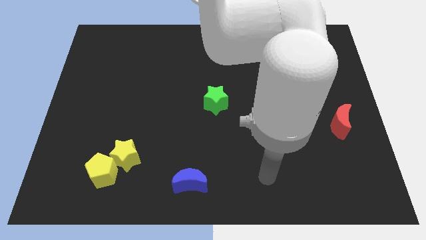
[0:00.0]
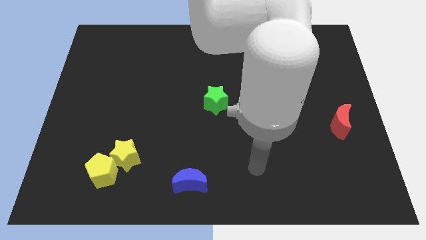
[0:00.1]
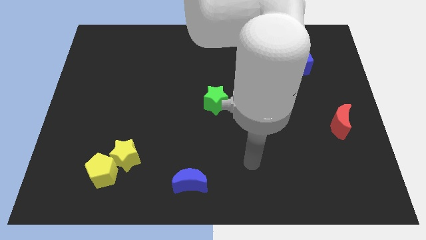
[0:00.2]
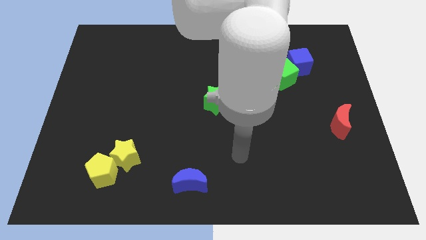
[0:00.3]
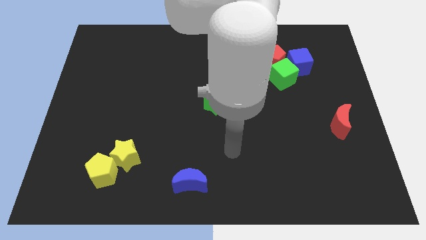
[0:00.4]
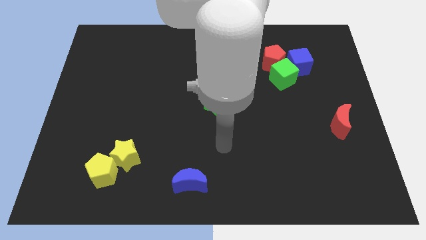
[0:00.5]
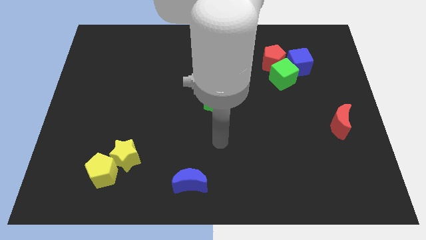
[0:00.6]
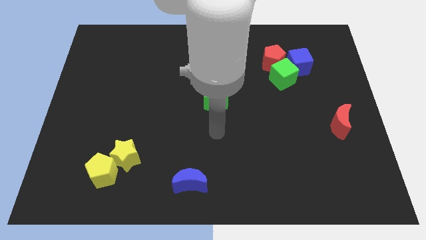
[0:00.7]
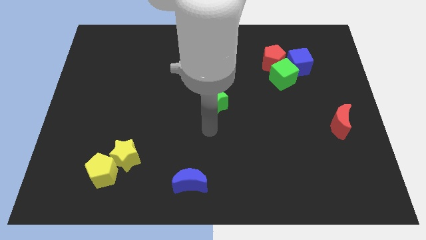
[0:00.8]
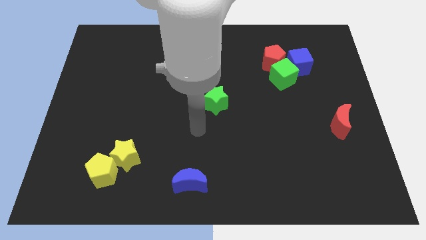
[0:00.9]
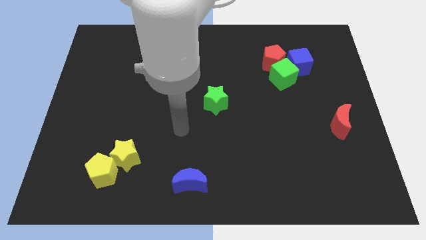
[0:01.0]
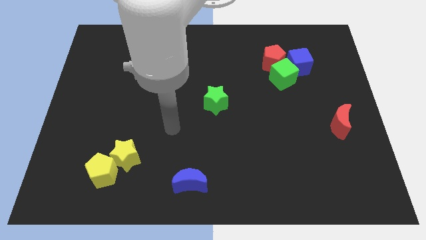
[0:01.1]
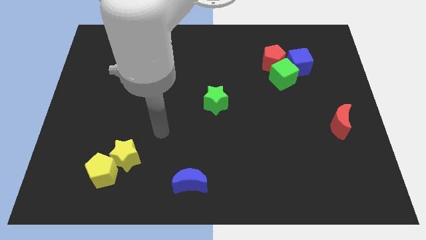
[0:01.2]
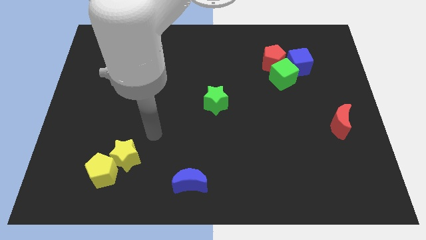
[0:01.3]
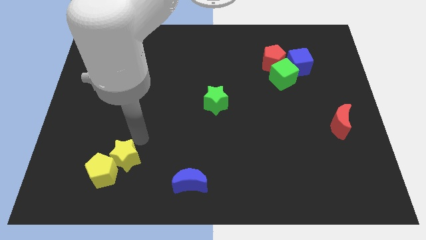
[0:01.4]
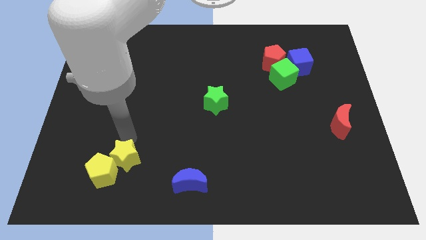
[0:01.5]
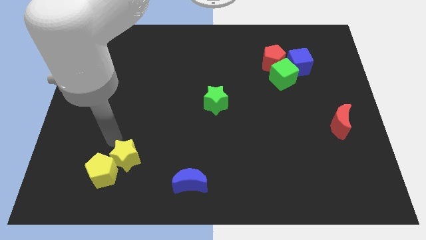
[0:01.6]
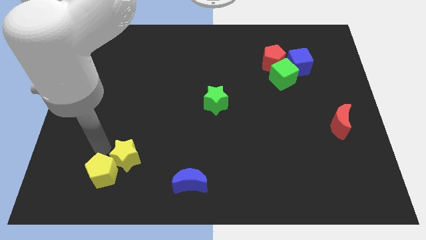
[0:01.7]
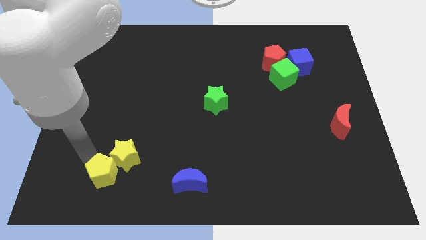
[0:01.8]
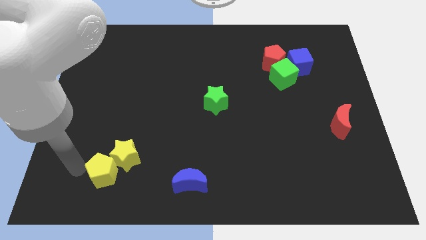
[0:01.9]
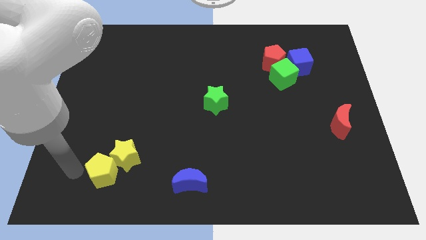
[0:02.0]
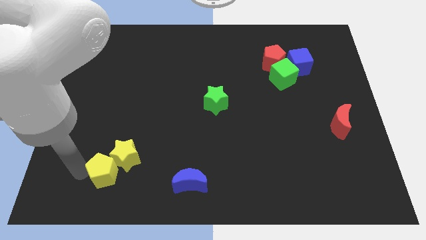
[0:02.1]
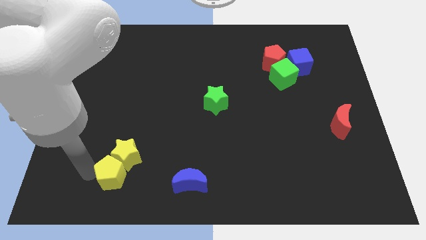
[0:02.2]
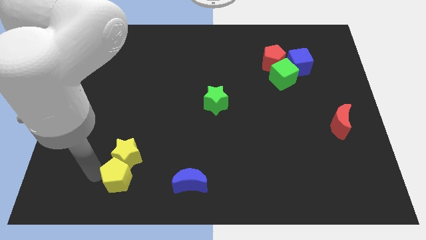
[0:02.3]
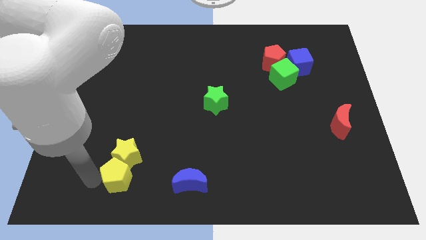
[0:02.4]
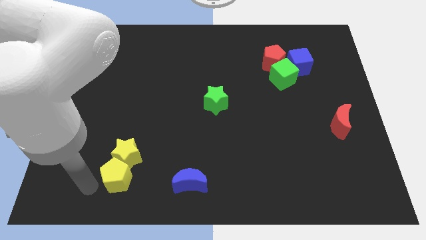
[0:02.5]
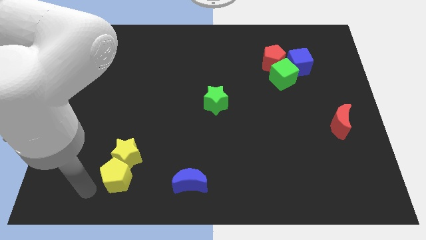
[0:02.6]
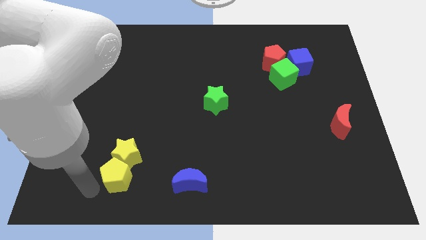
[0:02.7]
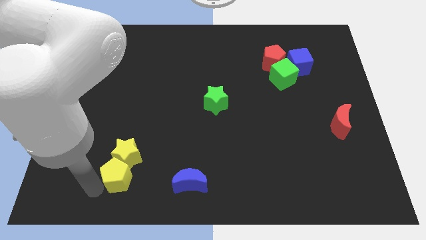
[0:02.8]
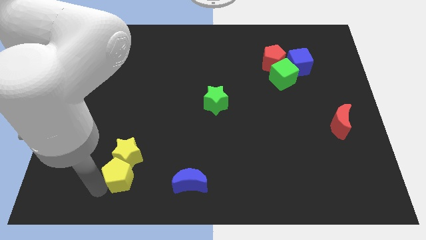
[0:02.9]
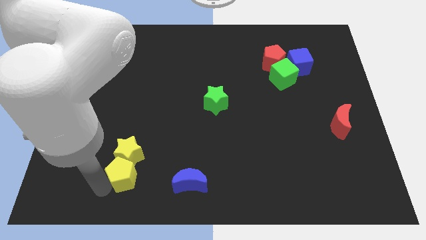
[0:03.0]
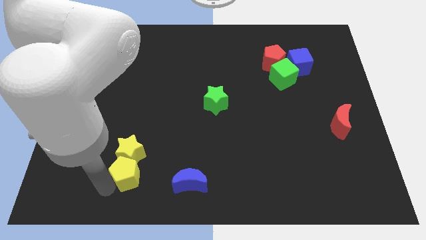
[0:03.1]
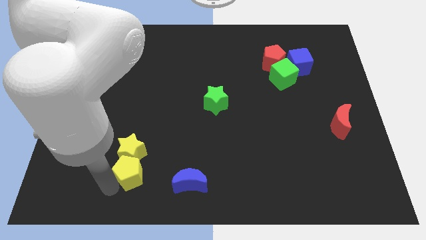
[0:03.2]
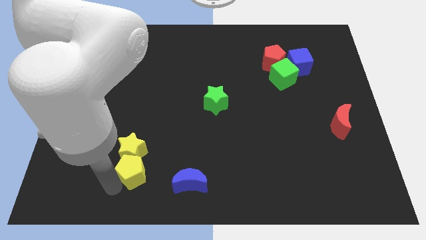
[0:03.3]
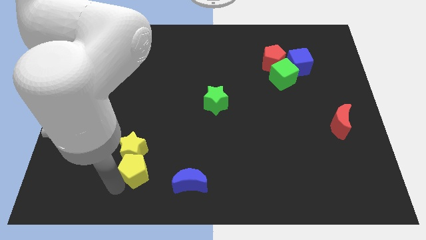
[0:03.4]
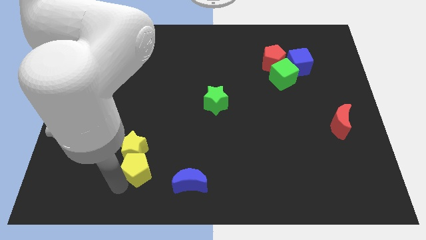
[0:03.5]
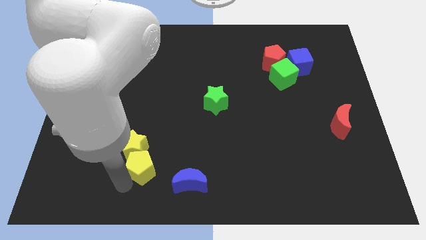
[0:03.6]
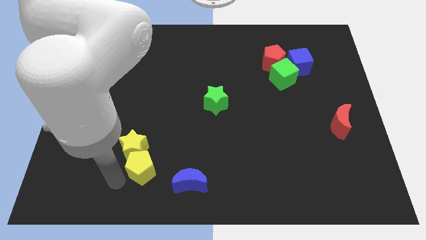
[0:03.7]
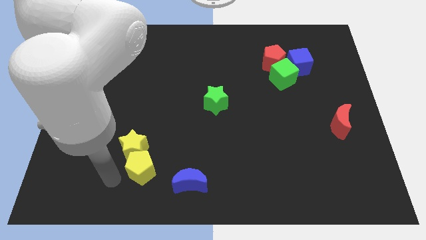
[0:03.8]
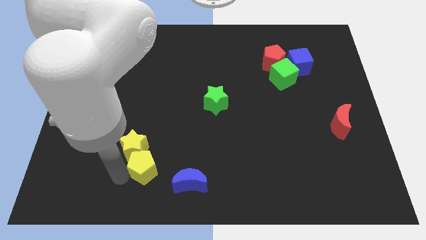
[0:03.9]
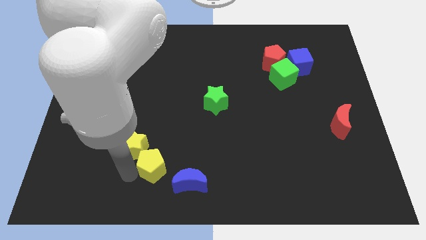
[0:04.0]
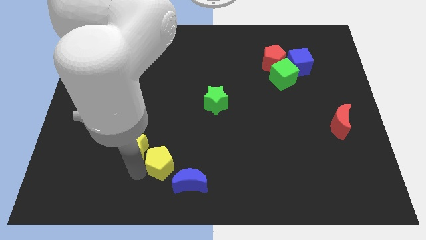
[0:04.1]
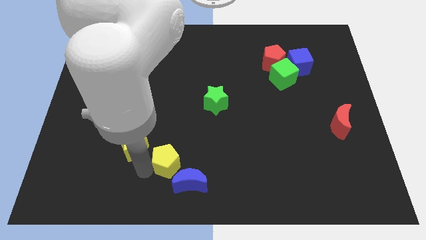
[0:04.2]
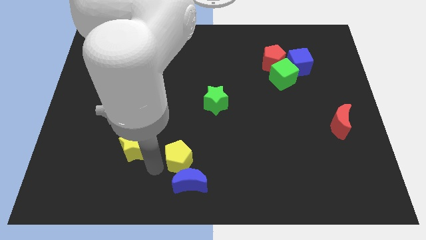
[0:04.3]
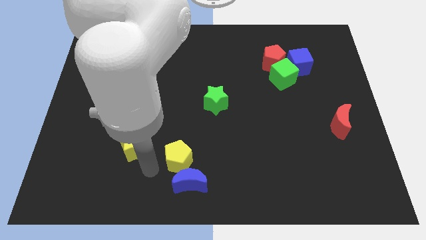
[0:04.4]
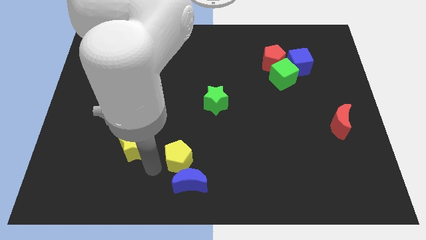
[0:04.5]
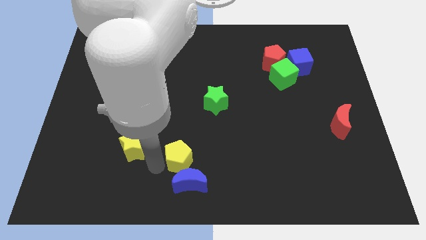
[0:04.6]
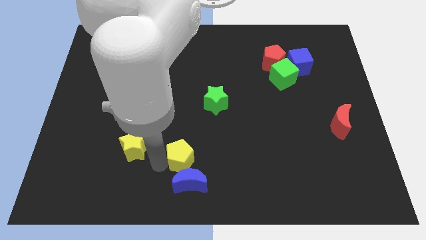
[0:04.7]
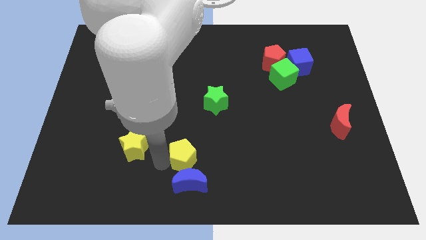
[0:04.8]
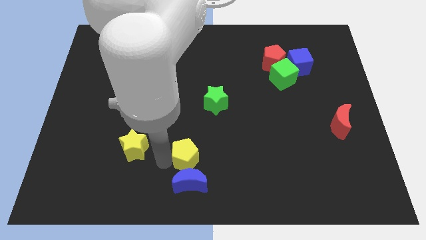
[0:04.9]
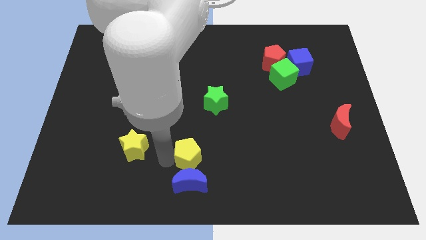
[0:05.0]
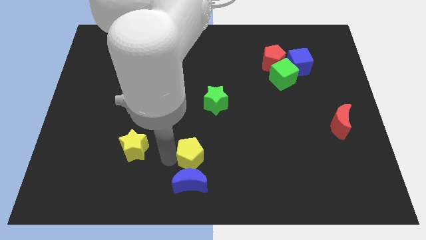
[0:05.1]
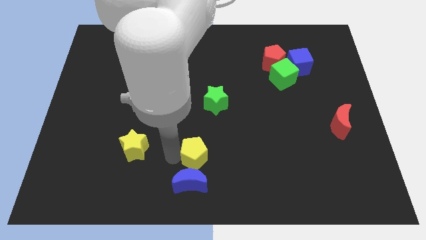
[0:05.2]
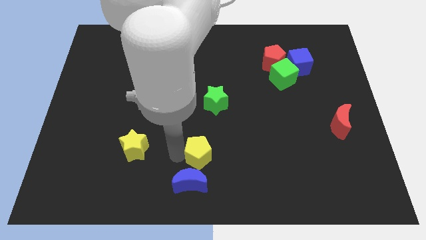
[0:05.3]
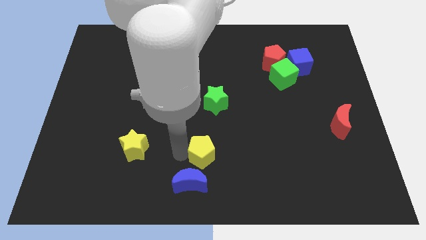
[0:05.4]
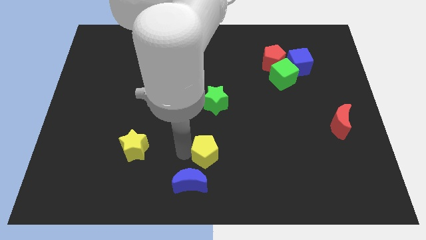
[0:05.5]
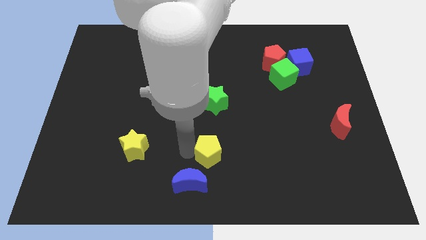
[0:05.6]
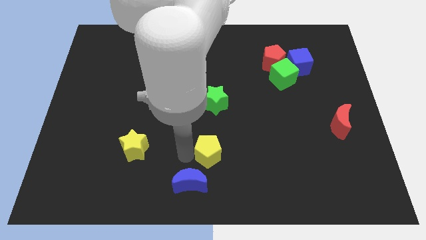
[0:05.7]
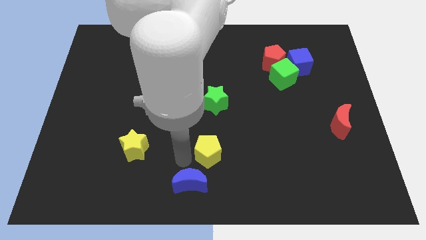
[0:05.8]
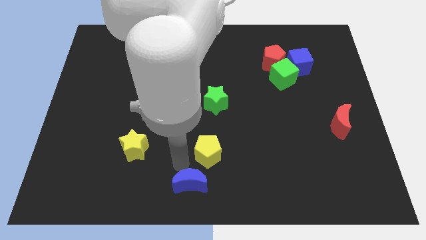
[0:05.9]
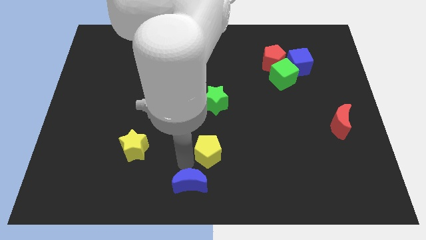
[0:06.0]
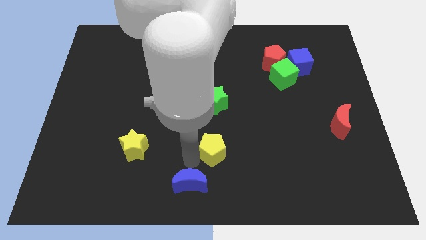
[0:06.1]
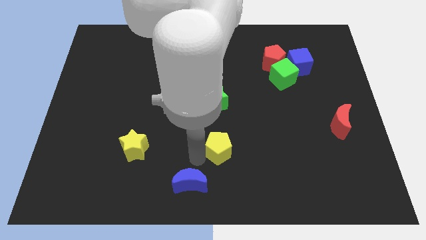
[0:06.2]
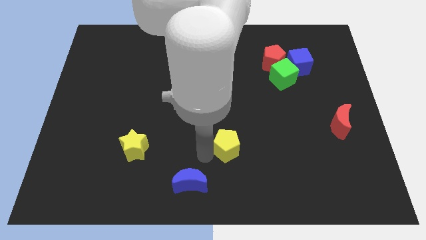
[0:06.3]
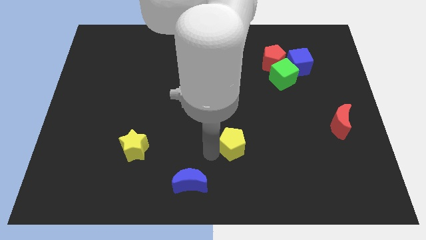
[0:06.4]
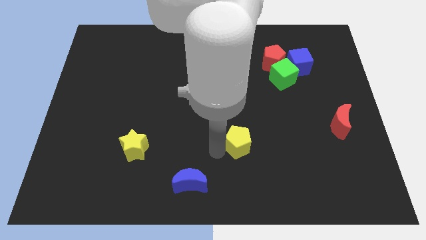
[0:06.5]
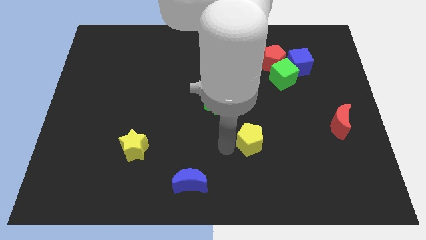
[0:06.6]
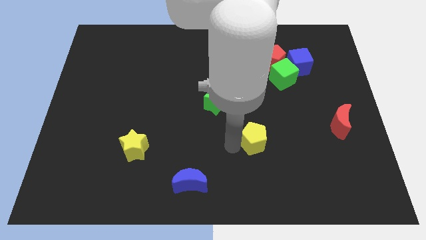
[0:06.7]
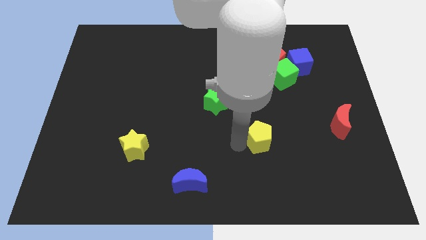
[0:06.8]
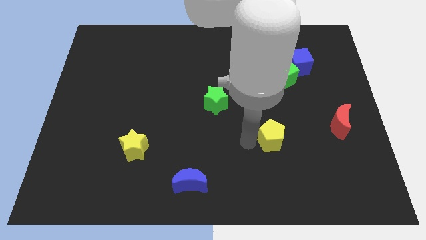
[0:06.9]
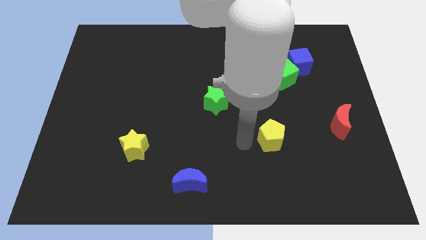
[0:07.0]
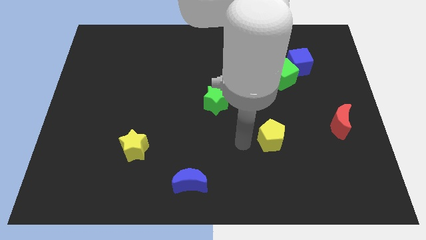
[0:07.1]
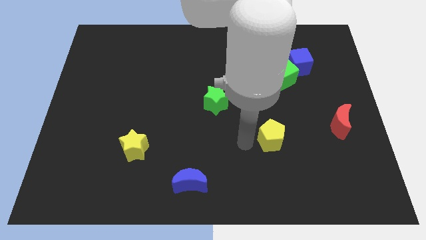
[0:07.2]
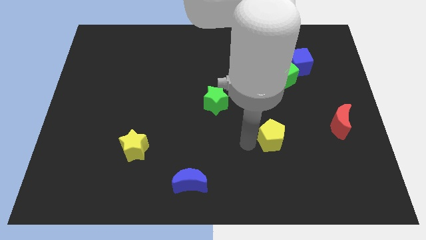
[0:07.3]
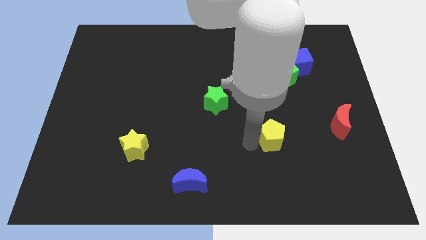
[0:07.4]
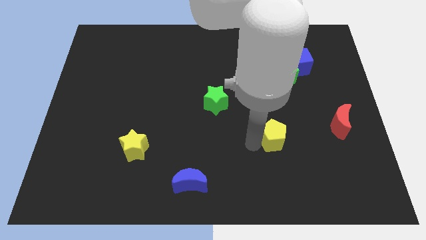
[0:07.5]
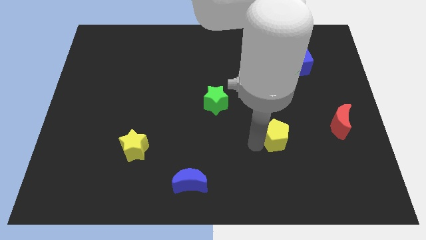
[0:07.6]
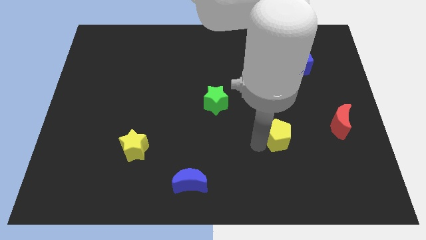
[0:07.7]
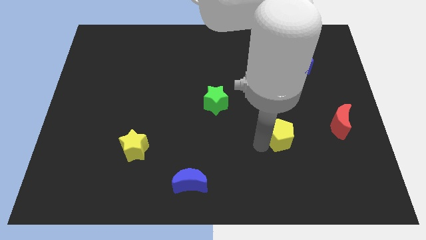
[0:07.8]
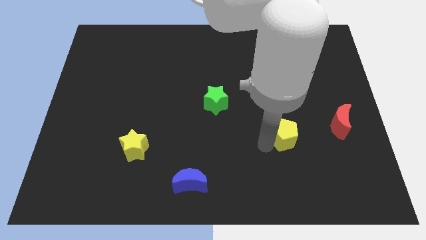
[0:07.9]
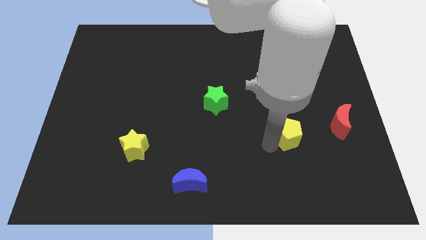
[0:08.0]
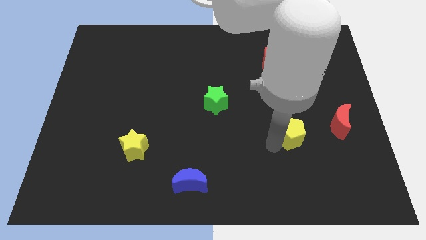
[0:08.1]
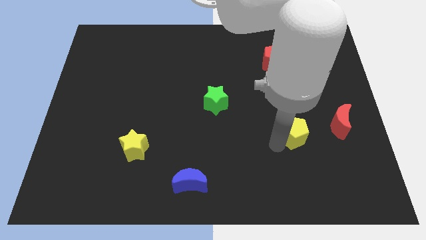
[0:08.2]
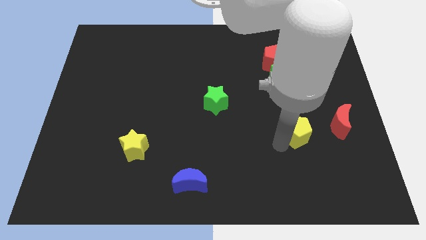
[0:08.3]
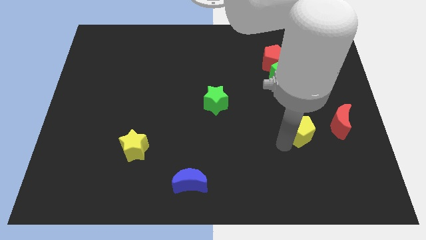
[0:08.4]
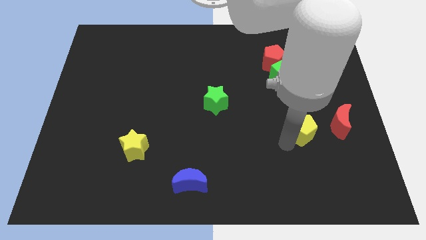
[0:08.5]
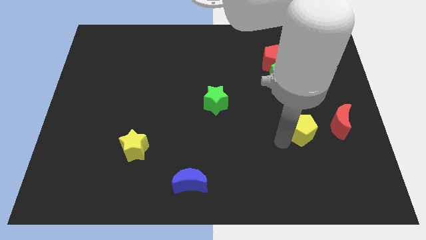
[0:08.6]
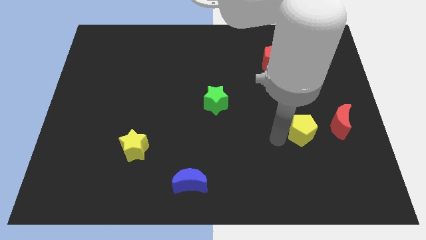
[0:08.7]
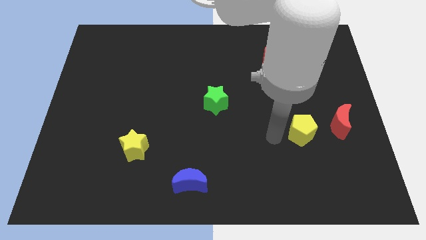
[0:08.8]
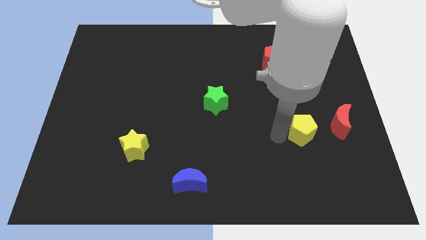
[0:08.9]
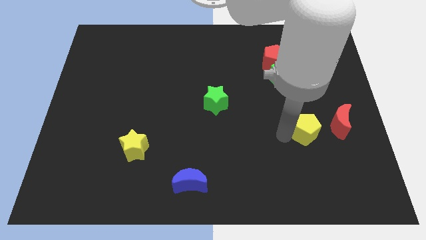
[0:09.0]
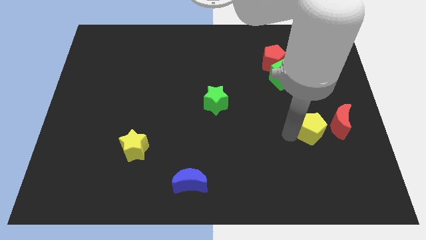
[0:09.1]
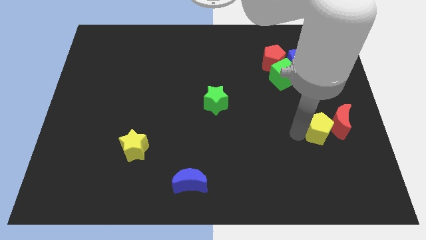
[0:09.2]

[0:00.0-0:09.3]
slide the yellow pentagon towards the red moon
